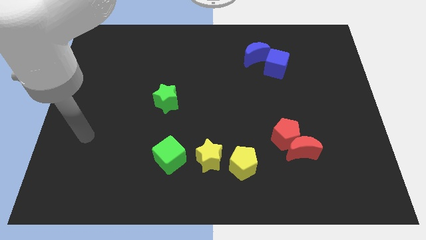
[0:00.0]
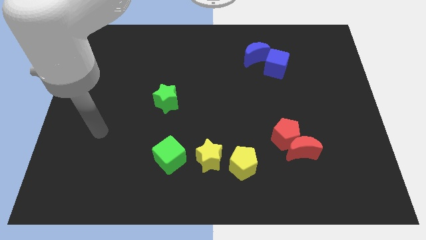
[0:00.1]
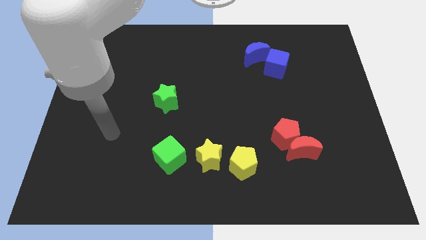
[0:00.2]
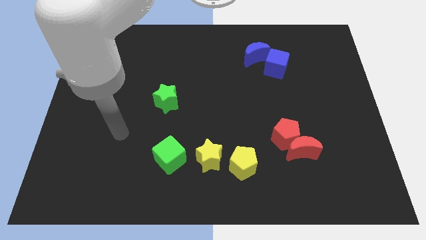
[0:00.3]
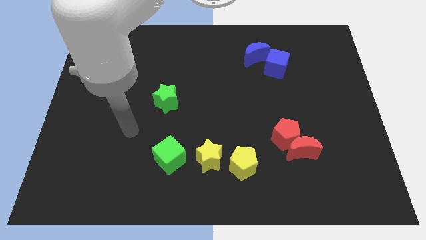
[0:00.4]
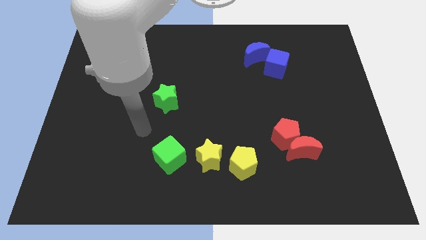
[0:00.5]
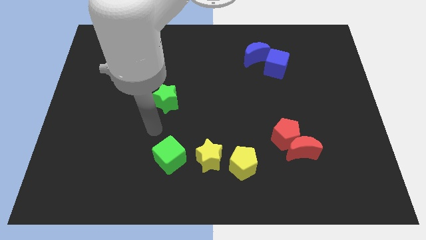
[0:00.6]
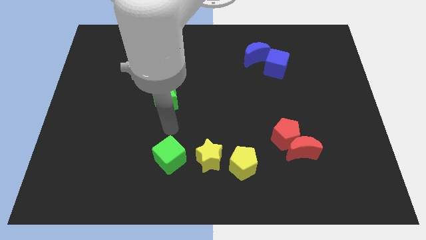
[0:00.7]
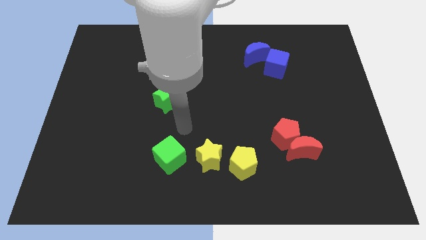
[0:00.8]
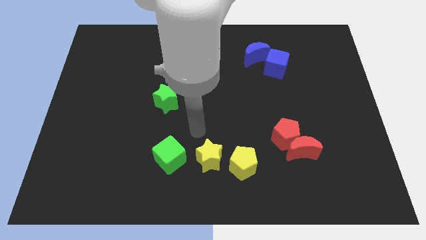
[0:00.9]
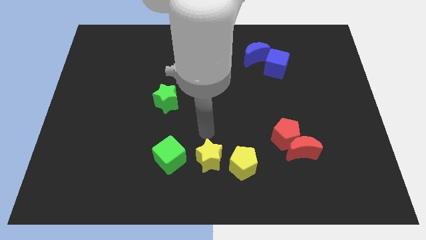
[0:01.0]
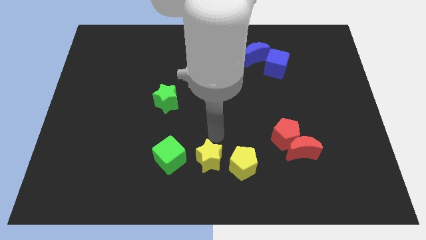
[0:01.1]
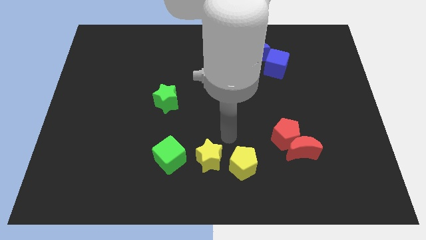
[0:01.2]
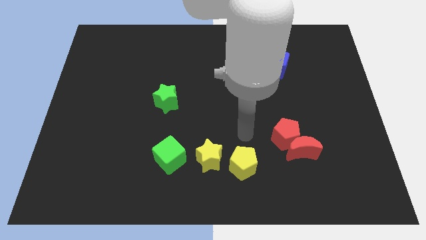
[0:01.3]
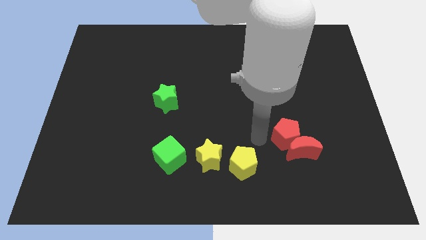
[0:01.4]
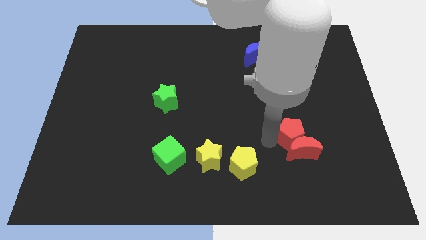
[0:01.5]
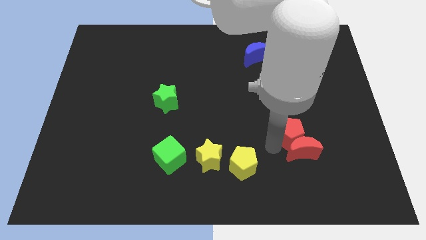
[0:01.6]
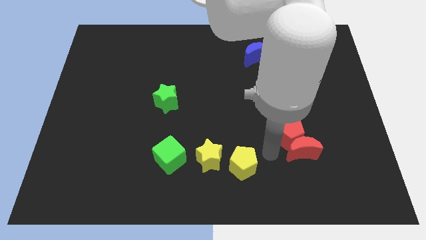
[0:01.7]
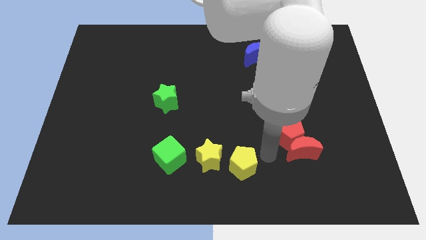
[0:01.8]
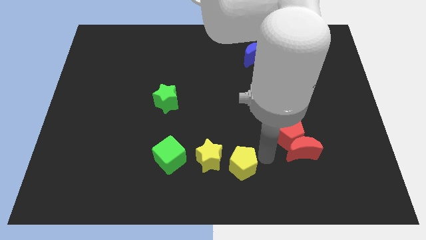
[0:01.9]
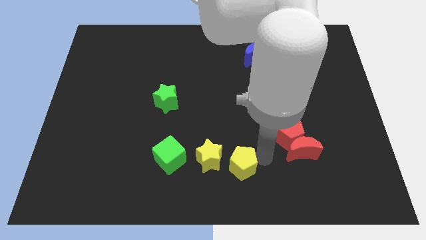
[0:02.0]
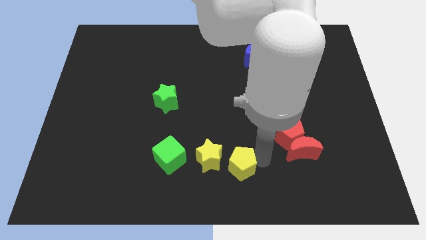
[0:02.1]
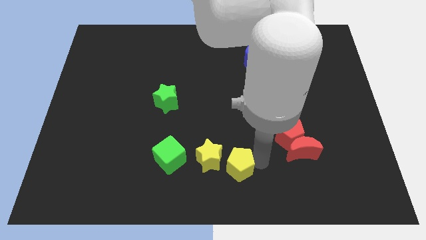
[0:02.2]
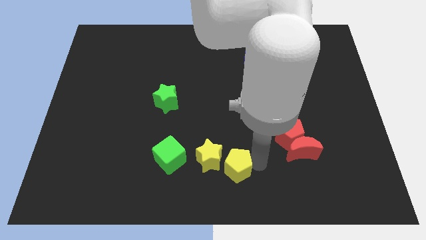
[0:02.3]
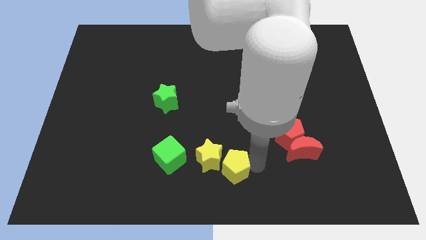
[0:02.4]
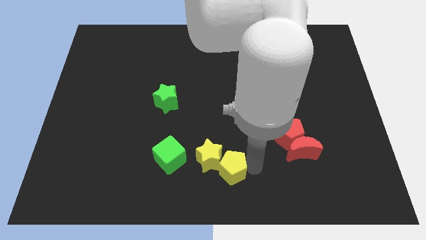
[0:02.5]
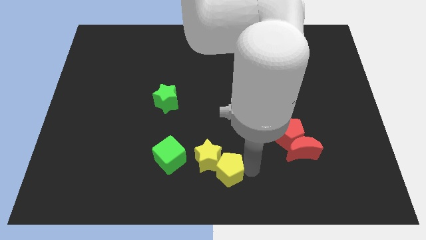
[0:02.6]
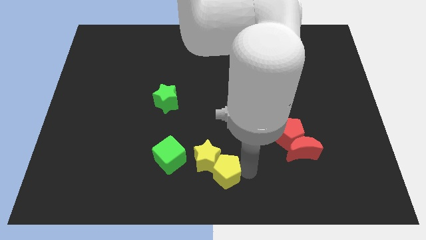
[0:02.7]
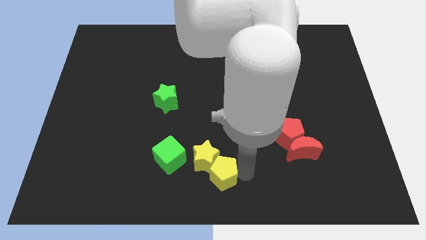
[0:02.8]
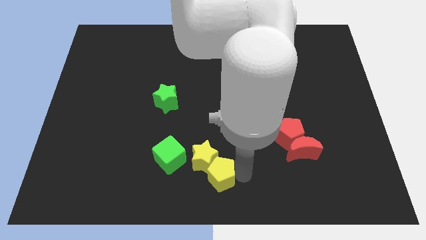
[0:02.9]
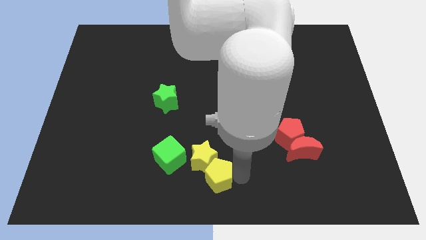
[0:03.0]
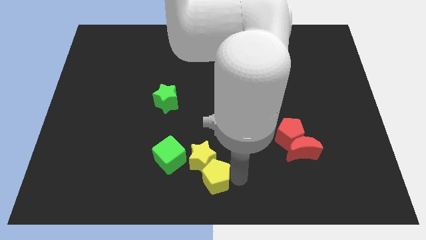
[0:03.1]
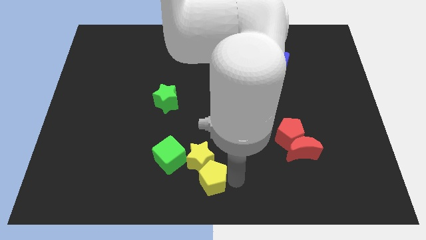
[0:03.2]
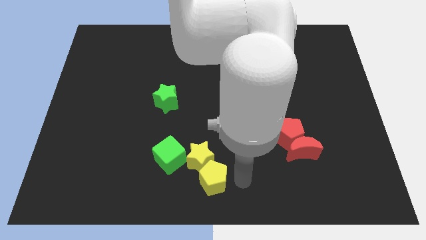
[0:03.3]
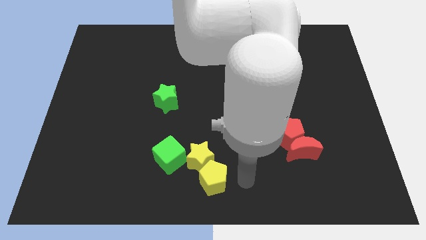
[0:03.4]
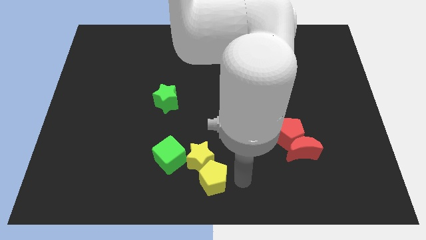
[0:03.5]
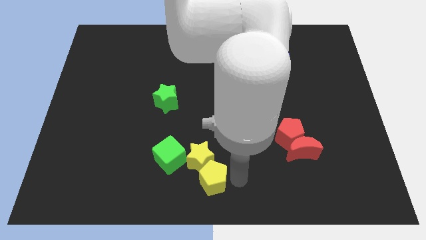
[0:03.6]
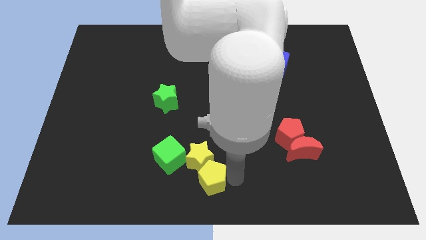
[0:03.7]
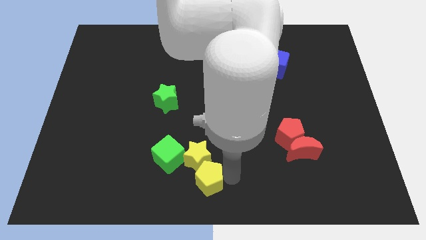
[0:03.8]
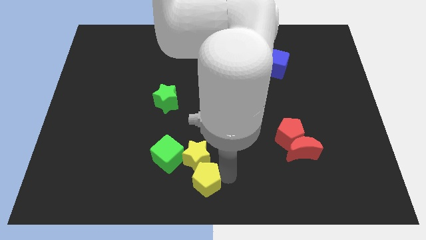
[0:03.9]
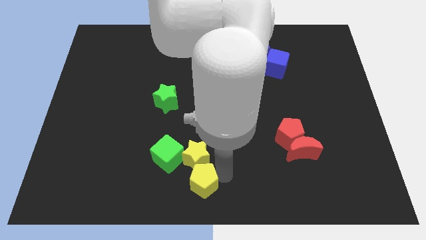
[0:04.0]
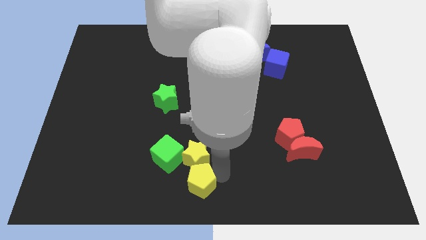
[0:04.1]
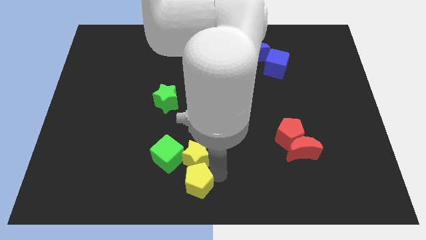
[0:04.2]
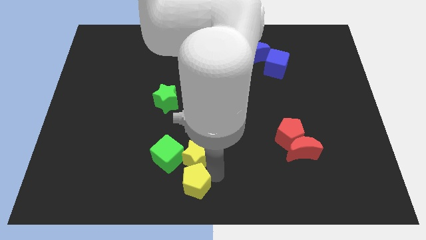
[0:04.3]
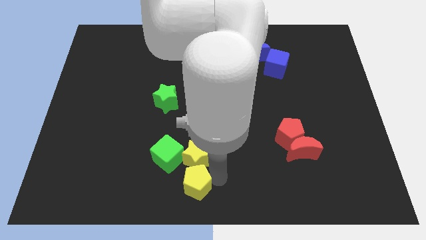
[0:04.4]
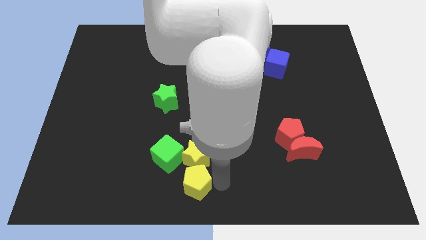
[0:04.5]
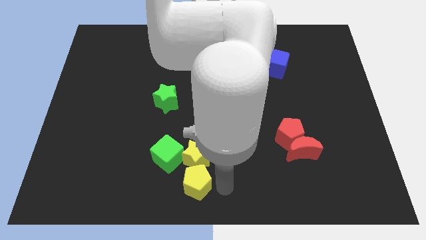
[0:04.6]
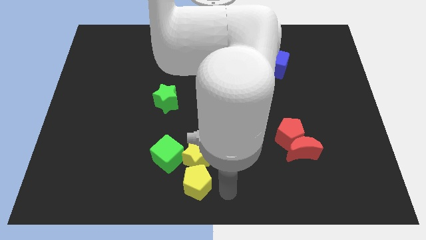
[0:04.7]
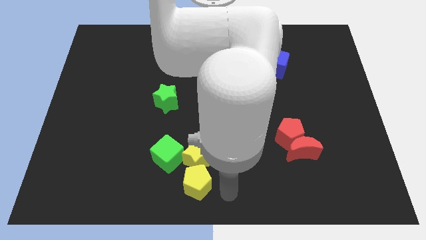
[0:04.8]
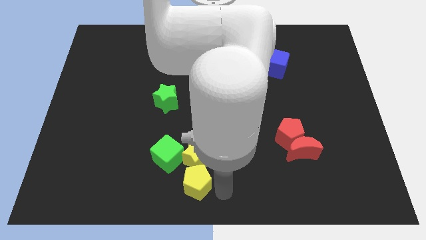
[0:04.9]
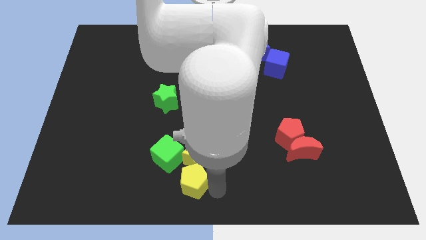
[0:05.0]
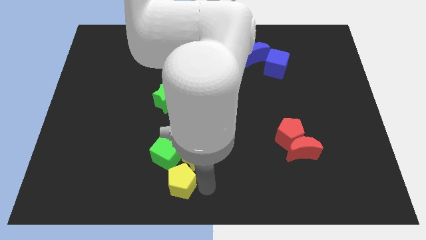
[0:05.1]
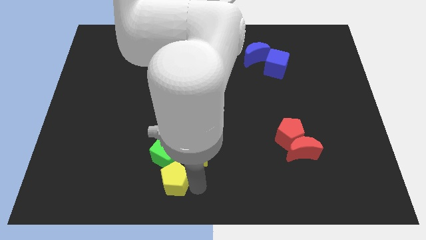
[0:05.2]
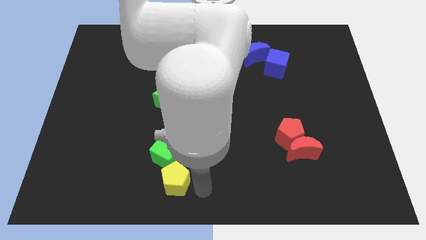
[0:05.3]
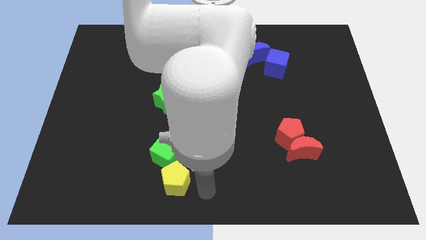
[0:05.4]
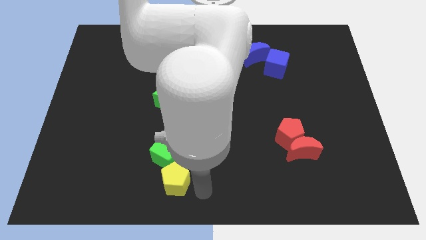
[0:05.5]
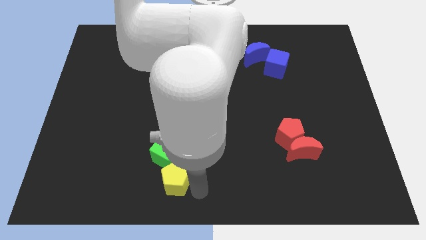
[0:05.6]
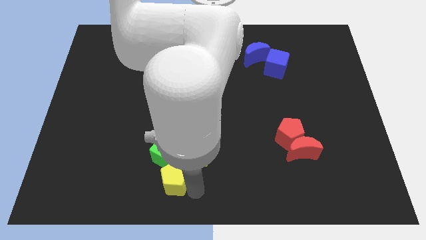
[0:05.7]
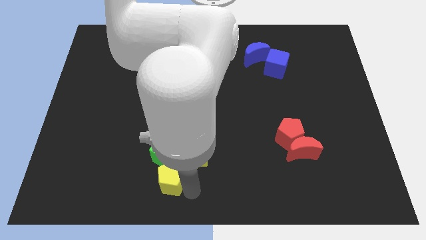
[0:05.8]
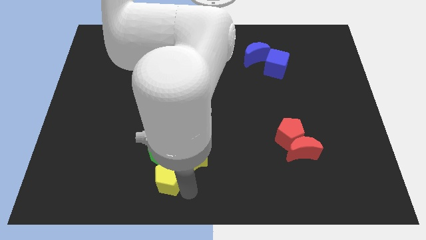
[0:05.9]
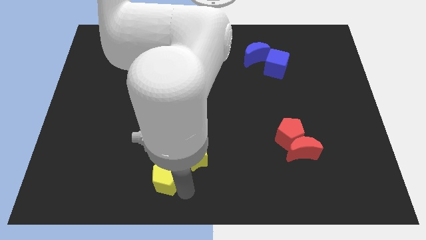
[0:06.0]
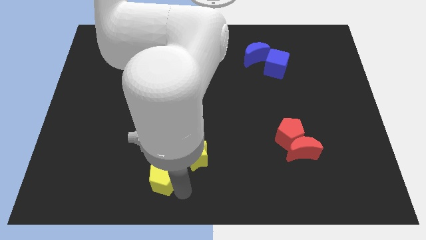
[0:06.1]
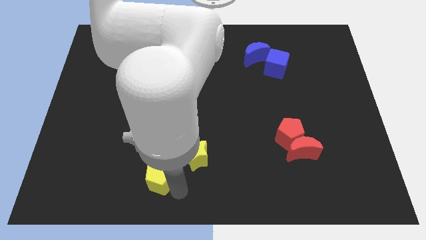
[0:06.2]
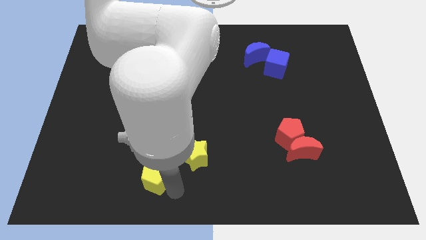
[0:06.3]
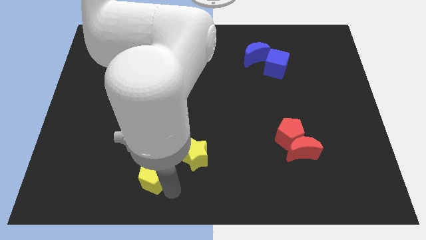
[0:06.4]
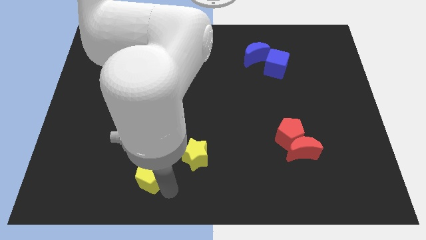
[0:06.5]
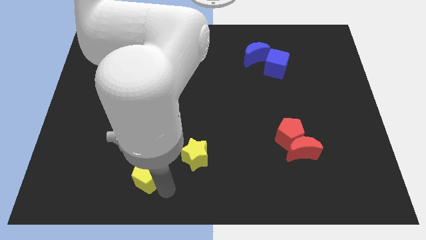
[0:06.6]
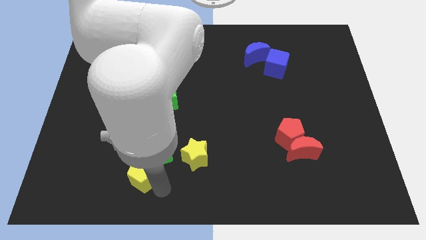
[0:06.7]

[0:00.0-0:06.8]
move the yellow pentagon to the left

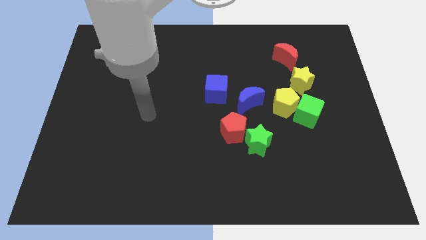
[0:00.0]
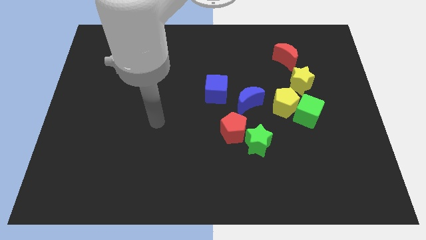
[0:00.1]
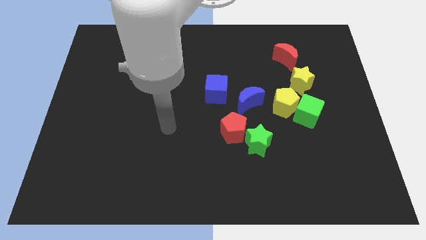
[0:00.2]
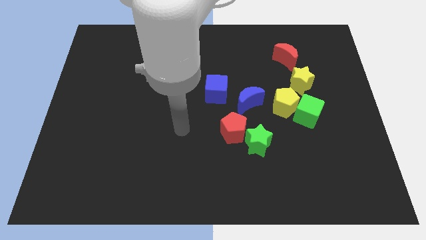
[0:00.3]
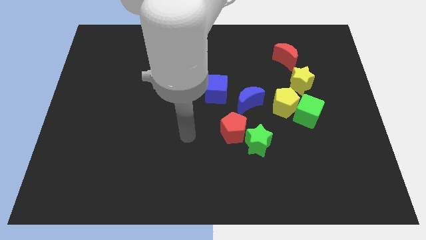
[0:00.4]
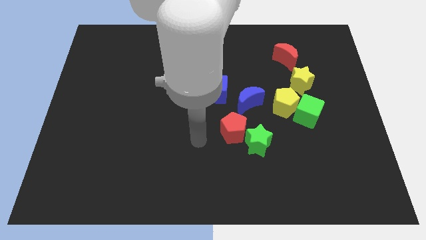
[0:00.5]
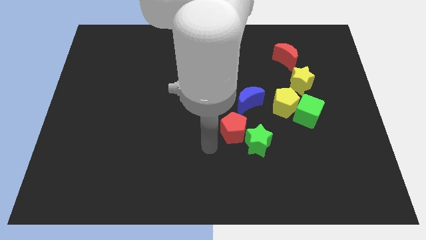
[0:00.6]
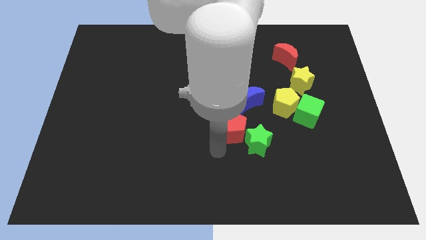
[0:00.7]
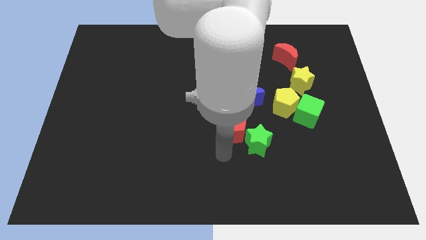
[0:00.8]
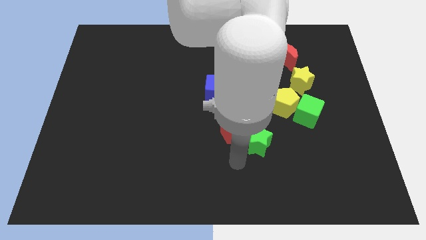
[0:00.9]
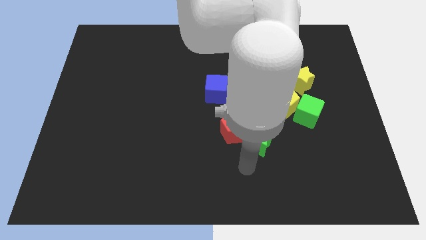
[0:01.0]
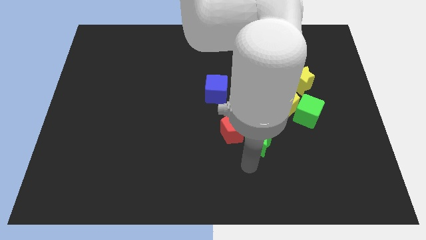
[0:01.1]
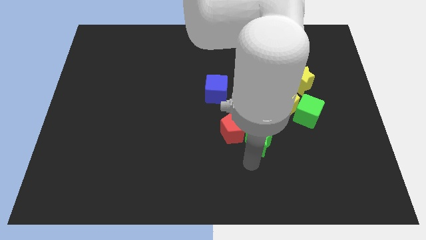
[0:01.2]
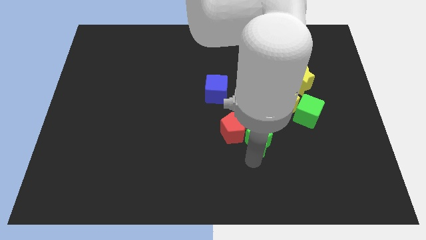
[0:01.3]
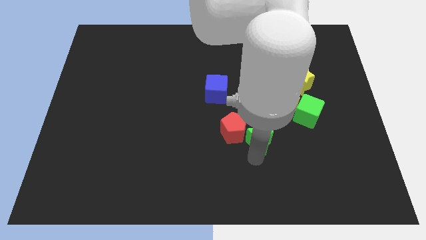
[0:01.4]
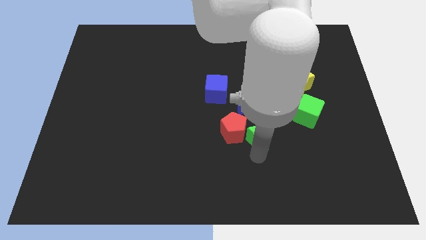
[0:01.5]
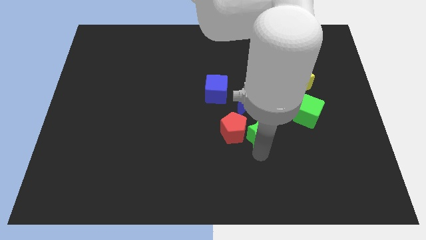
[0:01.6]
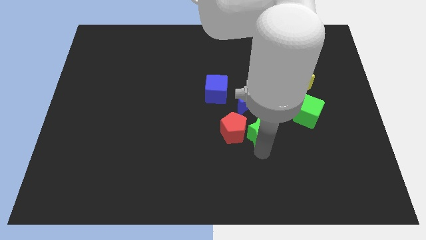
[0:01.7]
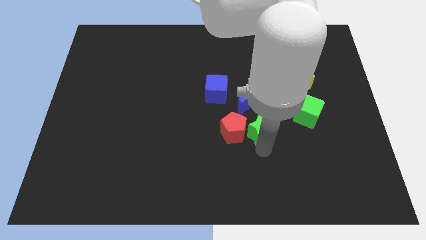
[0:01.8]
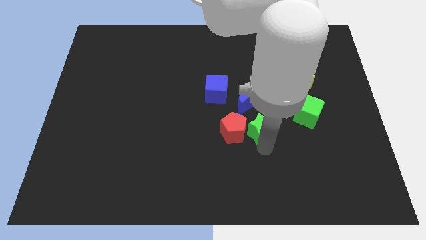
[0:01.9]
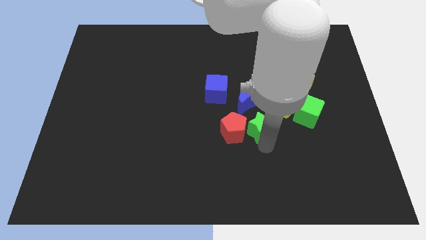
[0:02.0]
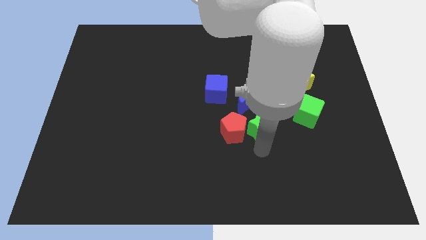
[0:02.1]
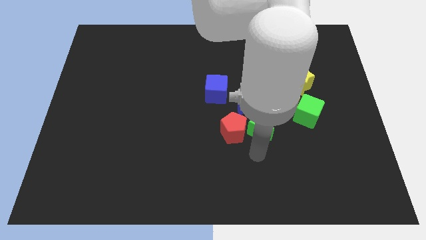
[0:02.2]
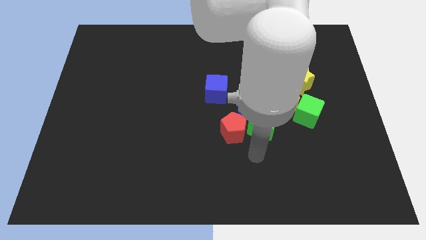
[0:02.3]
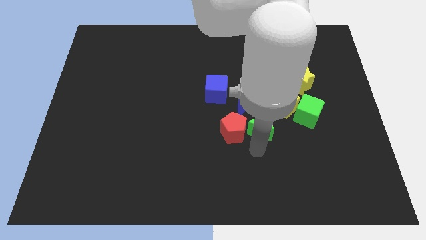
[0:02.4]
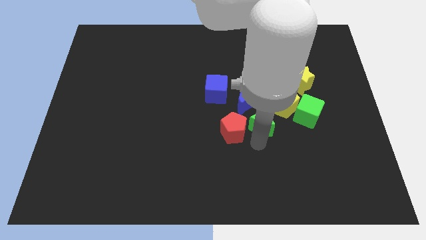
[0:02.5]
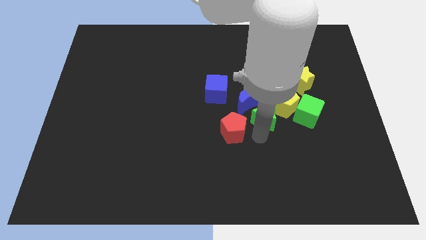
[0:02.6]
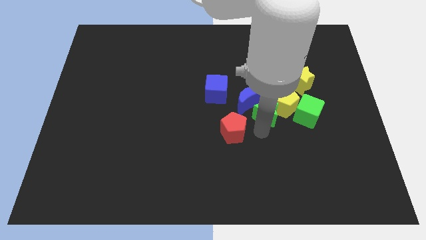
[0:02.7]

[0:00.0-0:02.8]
slide the green star upwards slightly
